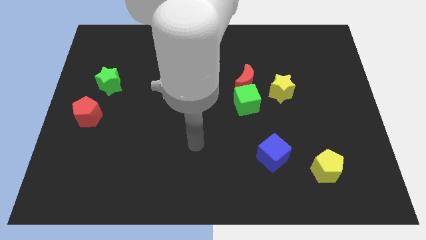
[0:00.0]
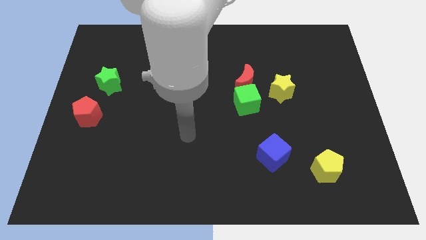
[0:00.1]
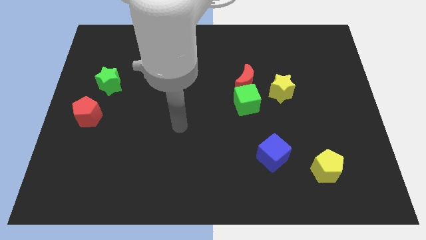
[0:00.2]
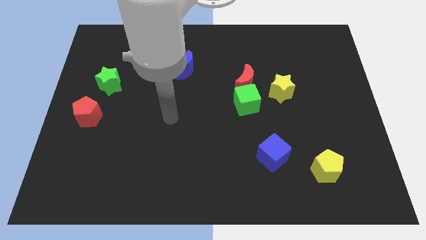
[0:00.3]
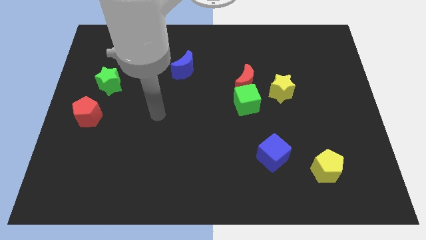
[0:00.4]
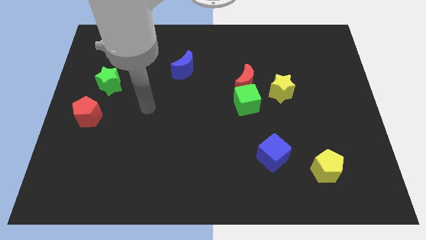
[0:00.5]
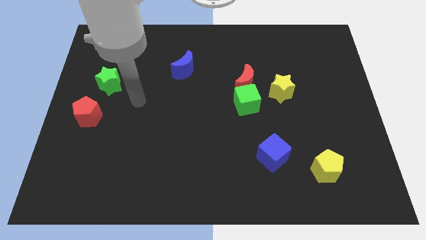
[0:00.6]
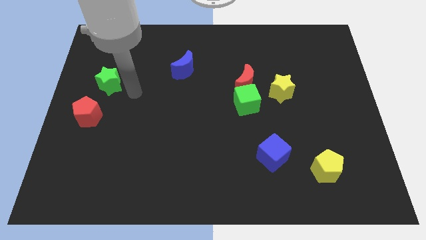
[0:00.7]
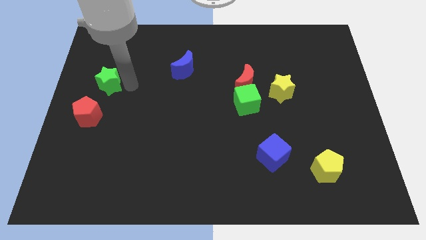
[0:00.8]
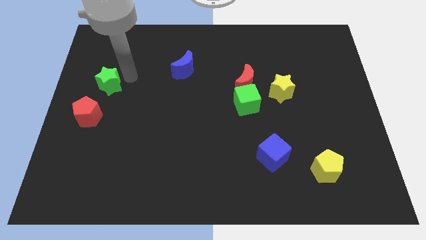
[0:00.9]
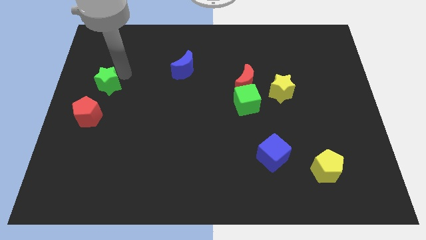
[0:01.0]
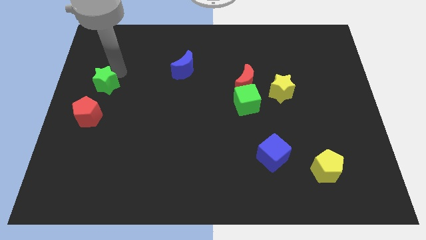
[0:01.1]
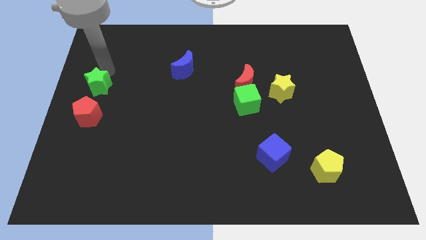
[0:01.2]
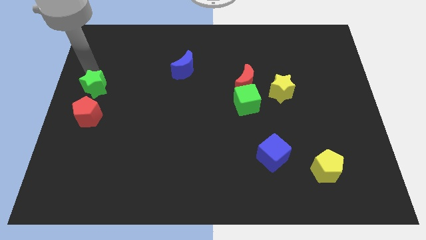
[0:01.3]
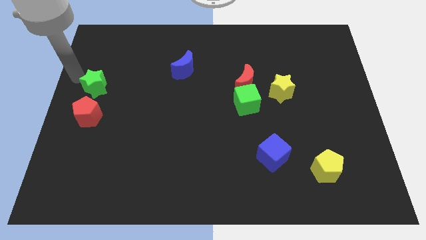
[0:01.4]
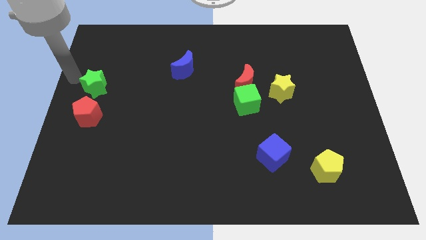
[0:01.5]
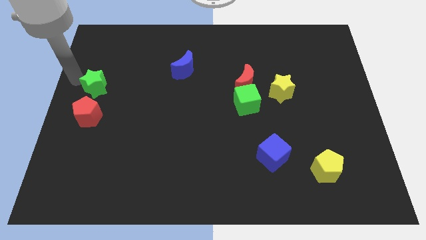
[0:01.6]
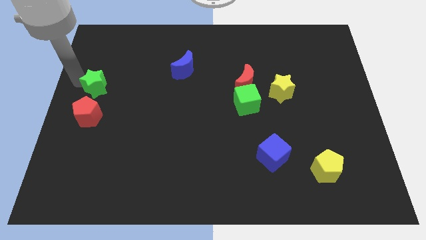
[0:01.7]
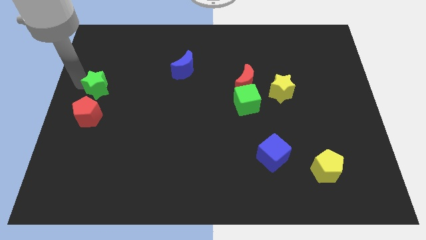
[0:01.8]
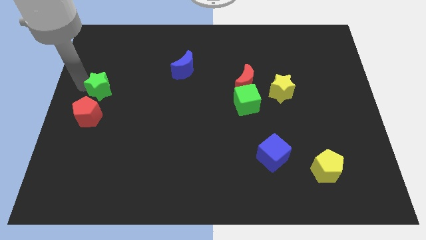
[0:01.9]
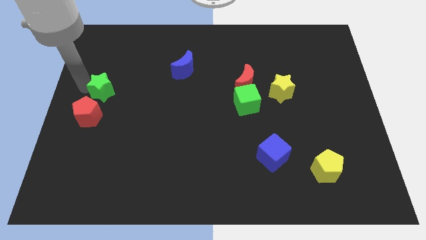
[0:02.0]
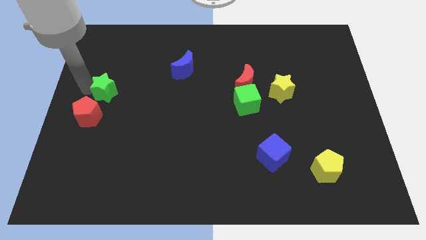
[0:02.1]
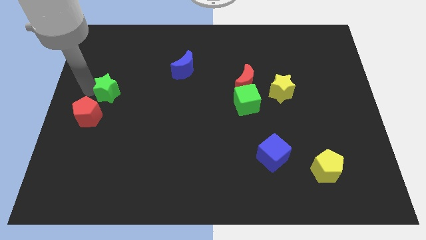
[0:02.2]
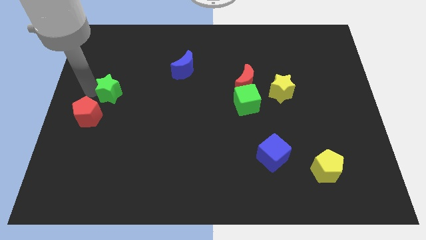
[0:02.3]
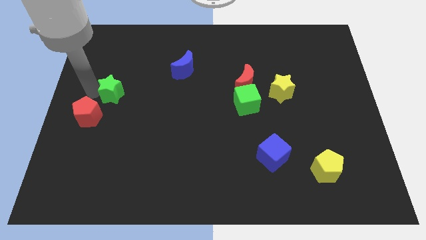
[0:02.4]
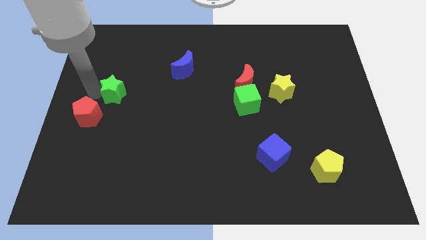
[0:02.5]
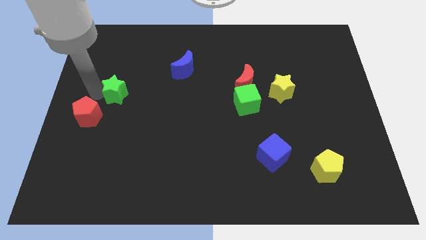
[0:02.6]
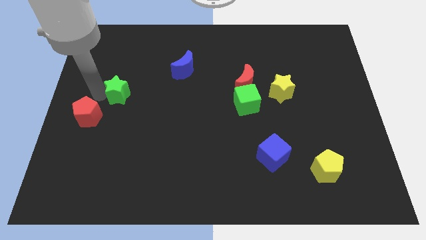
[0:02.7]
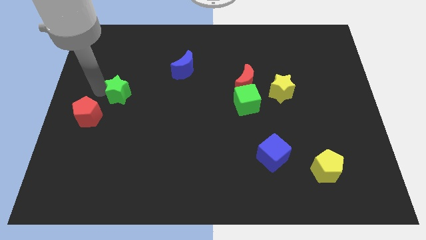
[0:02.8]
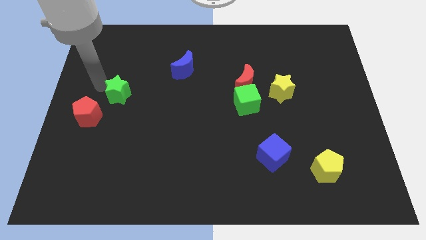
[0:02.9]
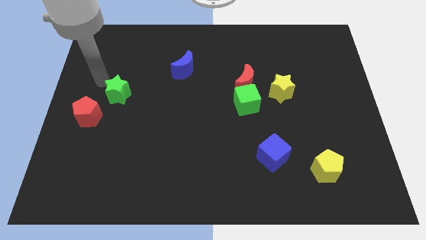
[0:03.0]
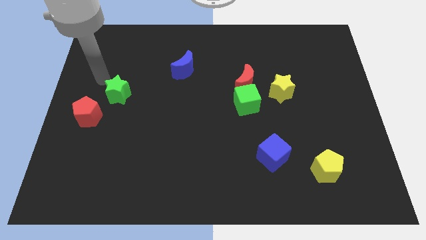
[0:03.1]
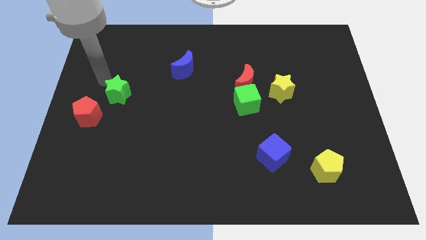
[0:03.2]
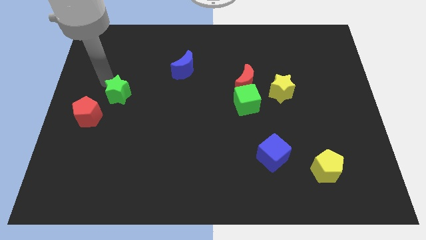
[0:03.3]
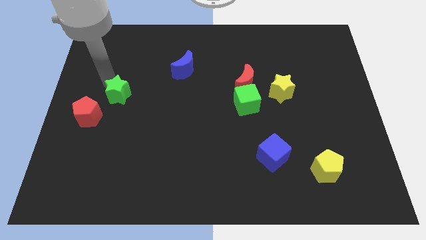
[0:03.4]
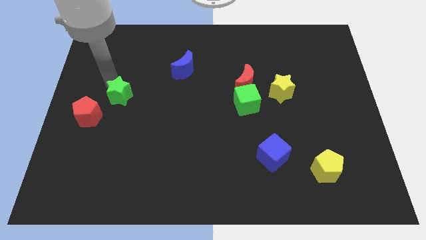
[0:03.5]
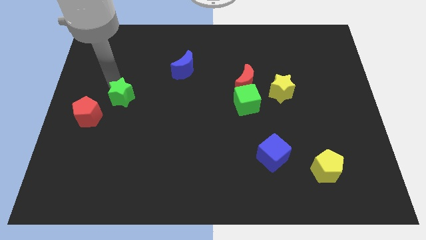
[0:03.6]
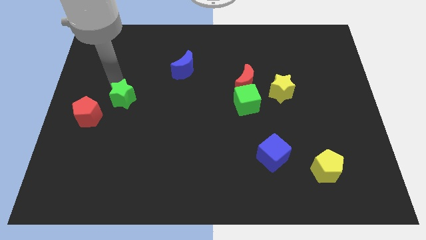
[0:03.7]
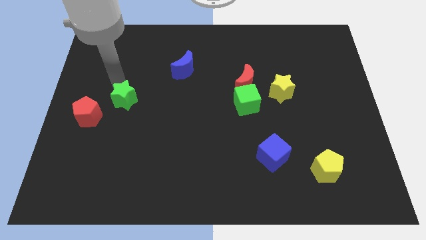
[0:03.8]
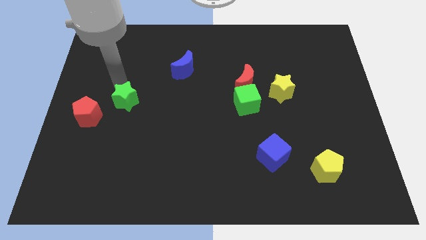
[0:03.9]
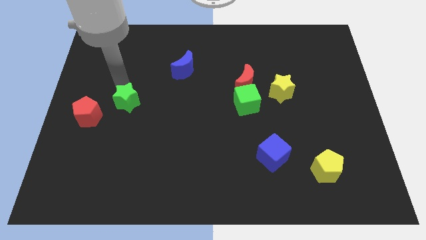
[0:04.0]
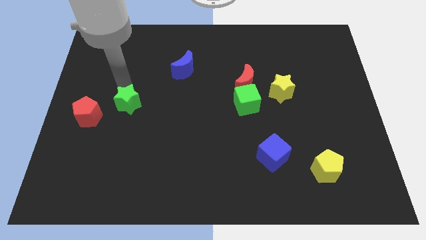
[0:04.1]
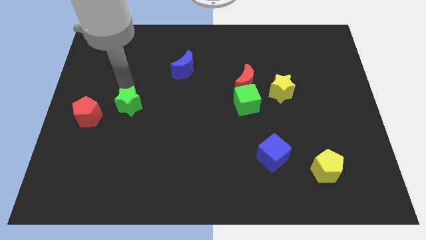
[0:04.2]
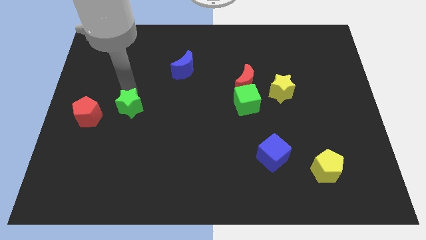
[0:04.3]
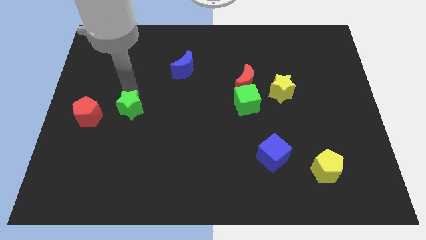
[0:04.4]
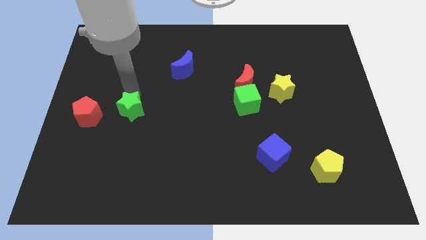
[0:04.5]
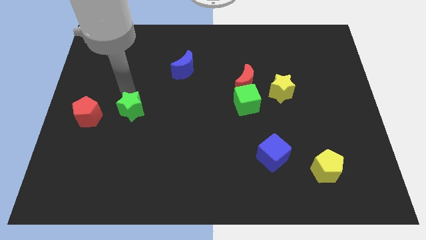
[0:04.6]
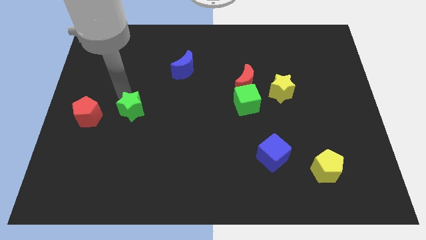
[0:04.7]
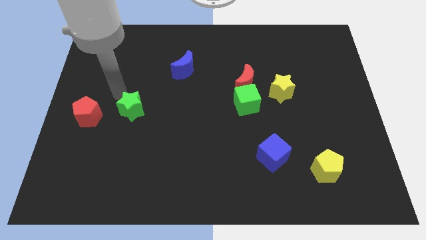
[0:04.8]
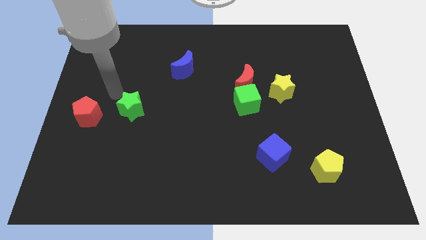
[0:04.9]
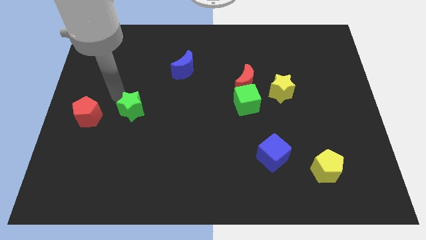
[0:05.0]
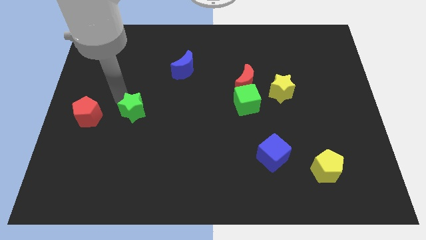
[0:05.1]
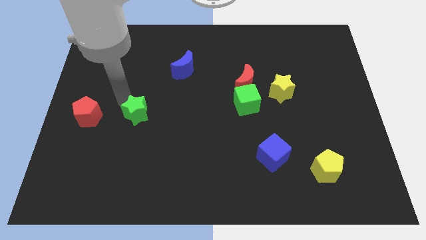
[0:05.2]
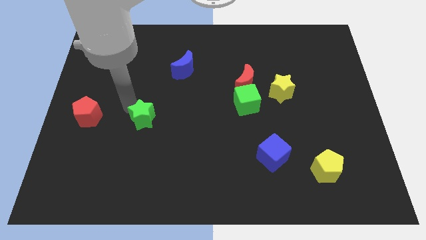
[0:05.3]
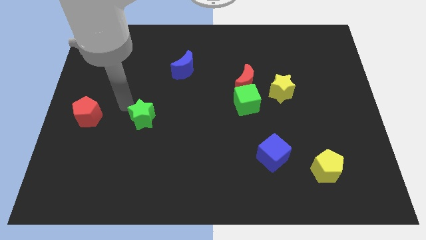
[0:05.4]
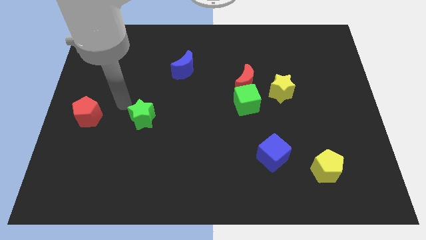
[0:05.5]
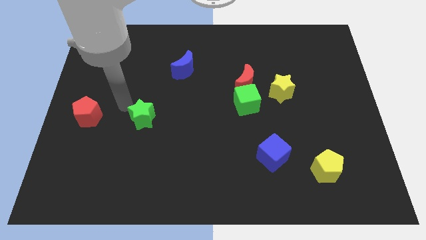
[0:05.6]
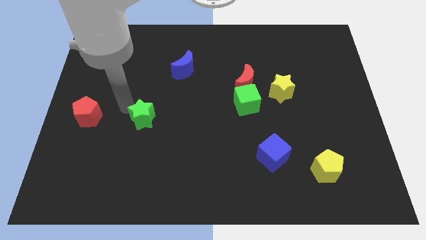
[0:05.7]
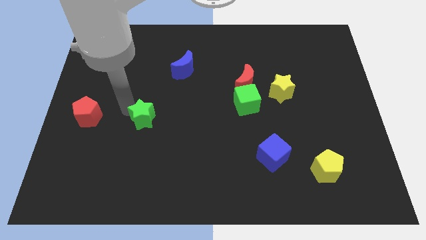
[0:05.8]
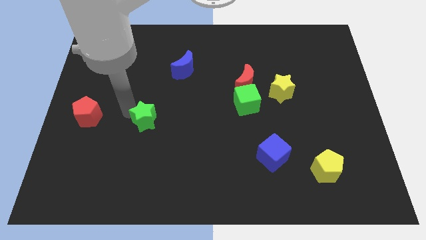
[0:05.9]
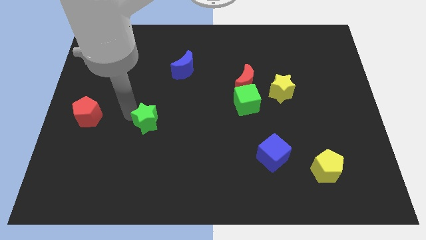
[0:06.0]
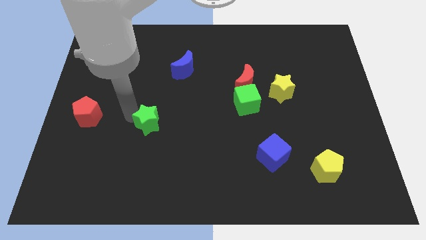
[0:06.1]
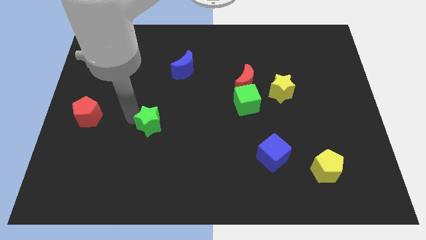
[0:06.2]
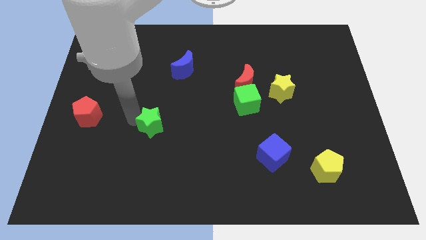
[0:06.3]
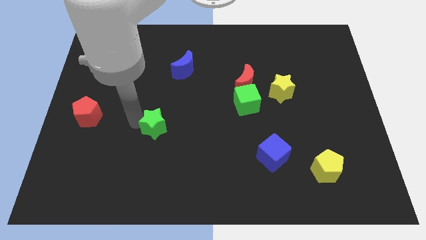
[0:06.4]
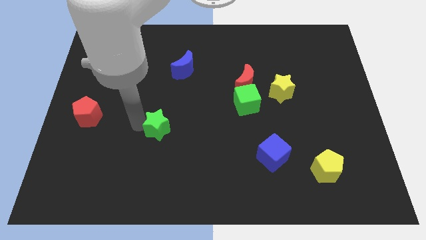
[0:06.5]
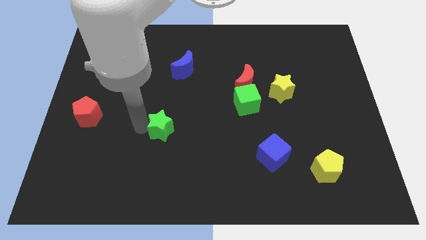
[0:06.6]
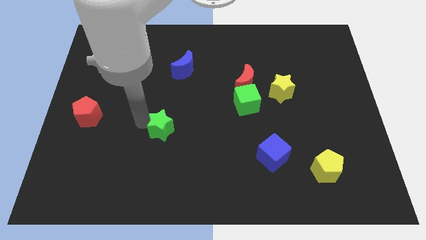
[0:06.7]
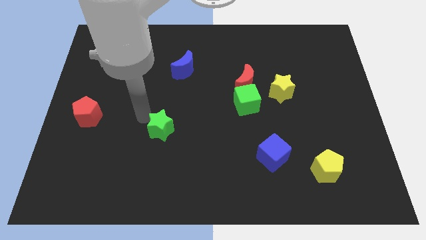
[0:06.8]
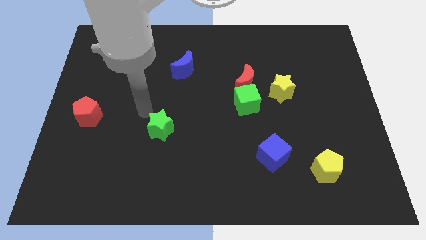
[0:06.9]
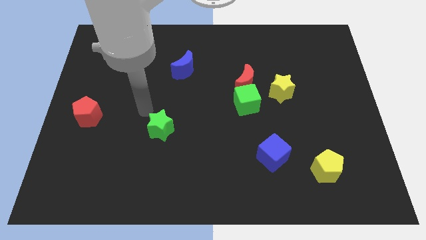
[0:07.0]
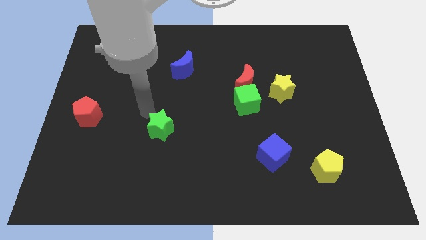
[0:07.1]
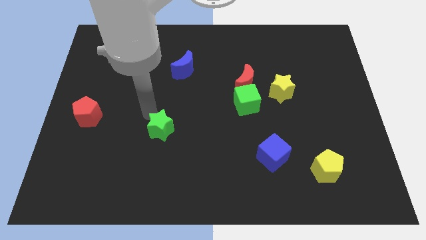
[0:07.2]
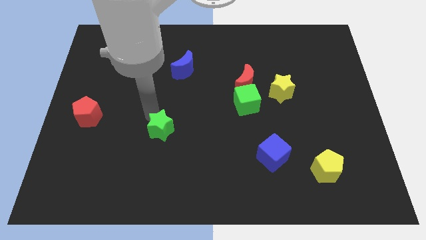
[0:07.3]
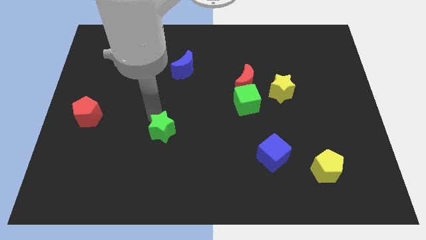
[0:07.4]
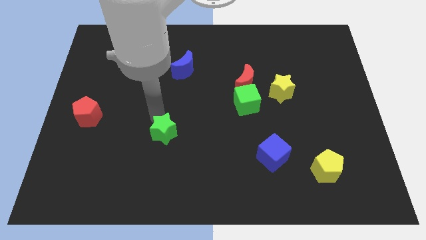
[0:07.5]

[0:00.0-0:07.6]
slide the green star downwards and right
